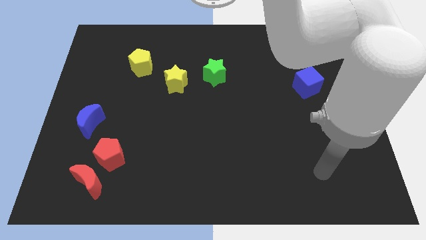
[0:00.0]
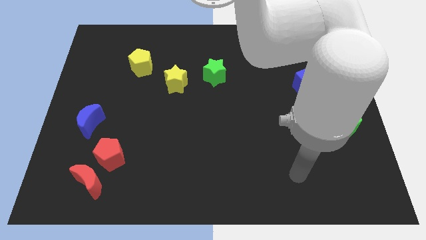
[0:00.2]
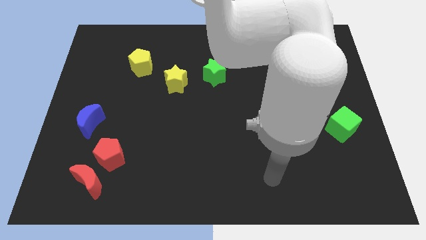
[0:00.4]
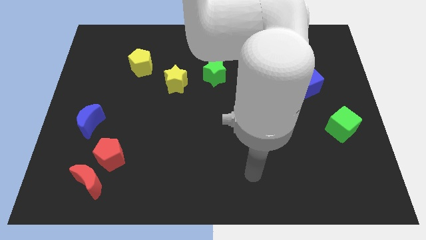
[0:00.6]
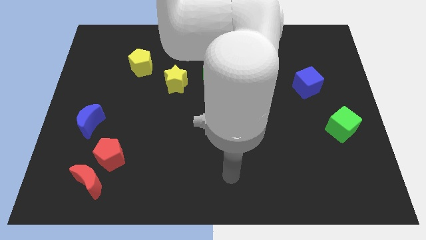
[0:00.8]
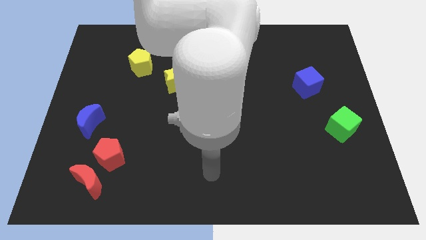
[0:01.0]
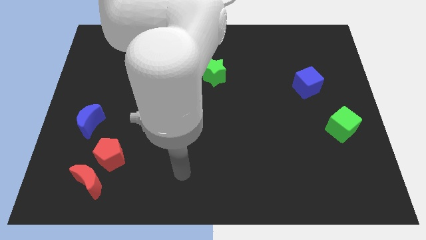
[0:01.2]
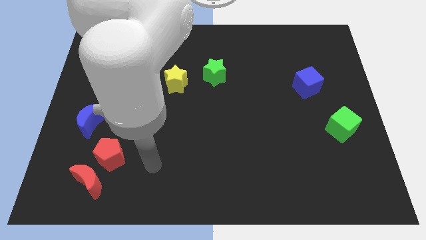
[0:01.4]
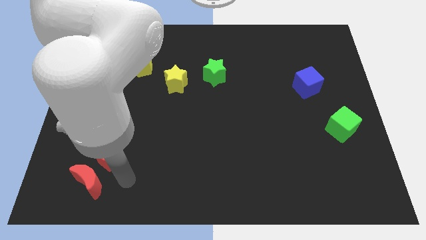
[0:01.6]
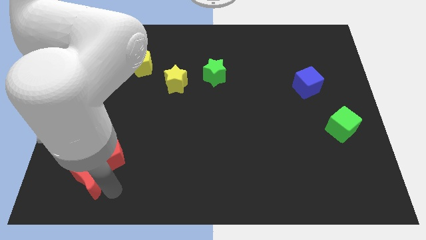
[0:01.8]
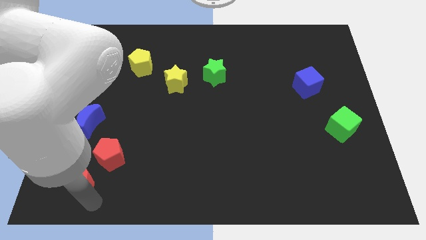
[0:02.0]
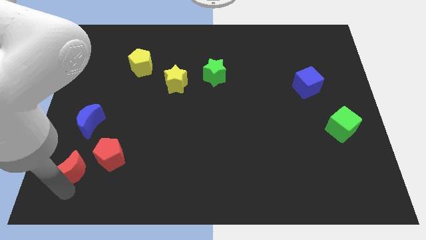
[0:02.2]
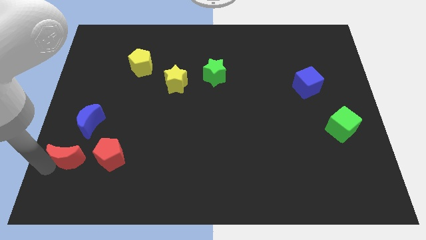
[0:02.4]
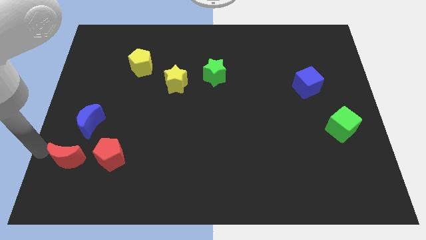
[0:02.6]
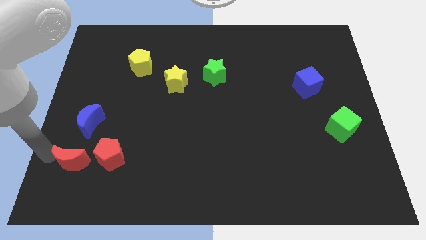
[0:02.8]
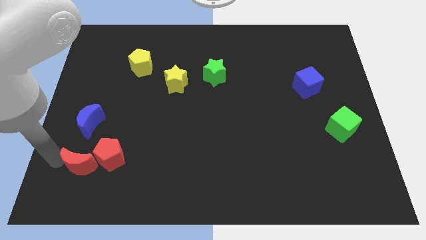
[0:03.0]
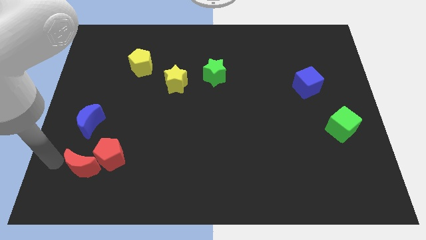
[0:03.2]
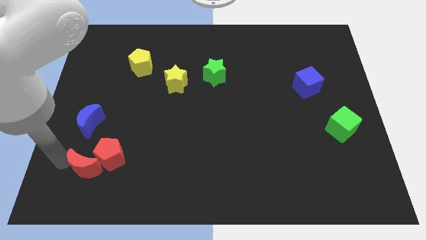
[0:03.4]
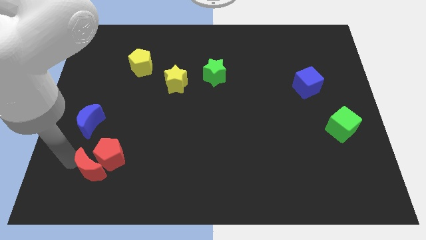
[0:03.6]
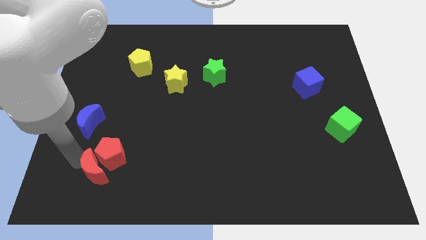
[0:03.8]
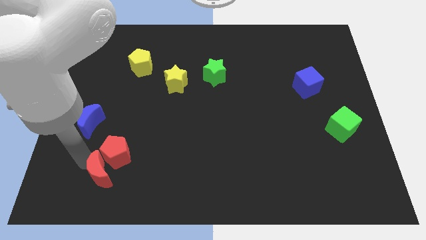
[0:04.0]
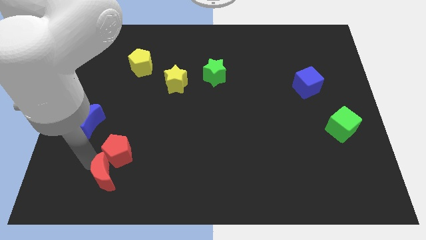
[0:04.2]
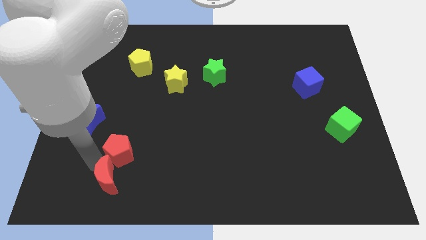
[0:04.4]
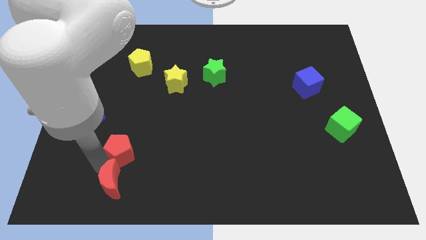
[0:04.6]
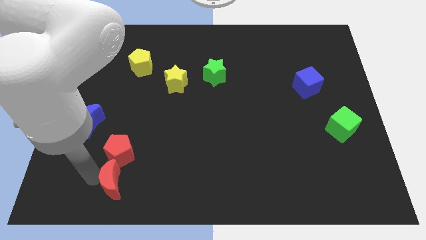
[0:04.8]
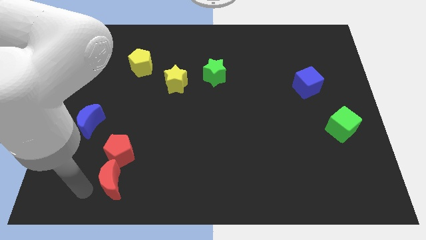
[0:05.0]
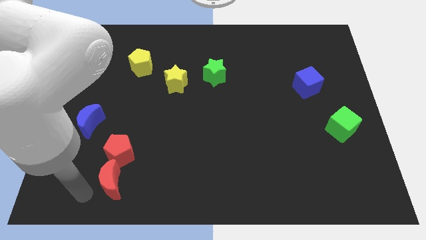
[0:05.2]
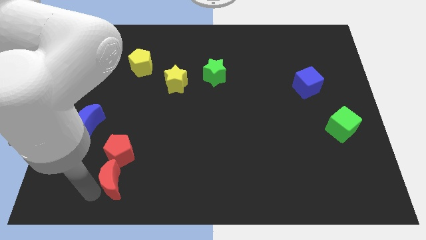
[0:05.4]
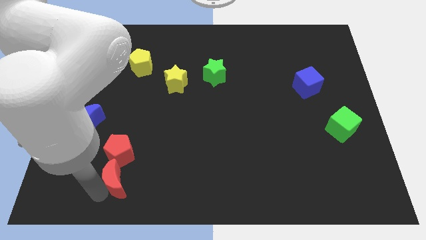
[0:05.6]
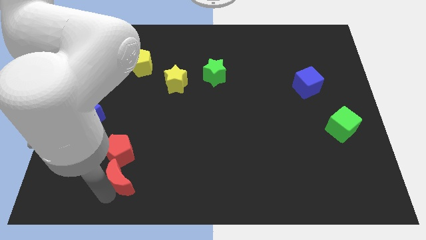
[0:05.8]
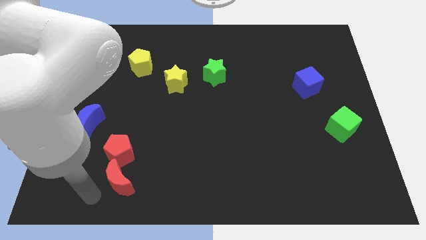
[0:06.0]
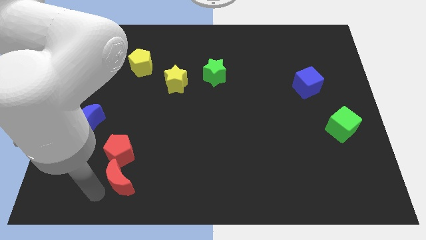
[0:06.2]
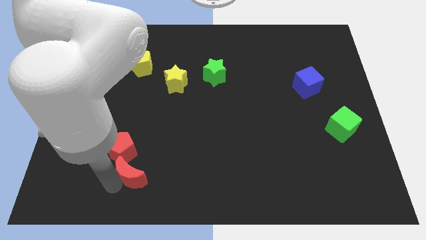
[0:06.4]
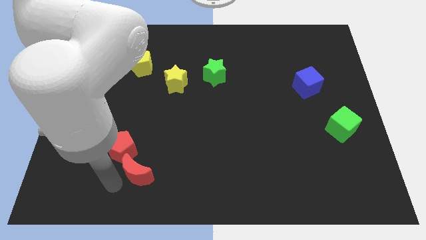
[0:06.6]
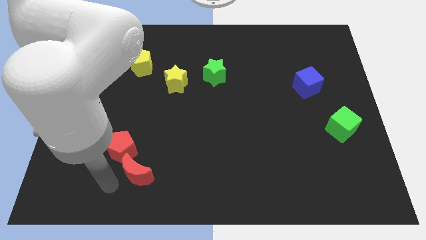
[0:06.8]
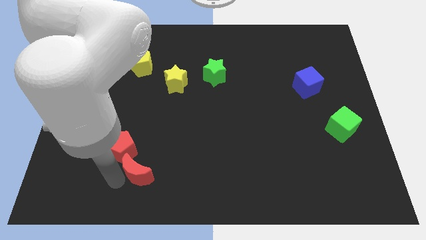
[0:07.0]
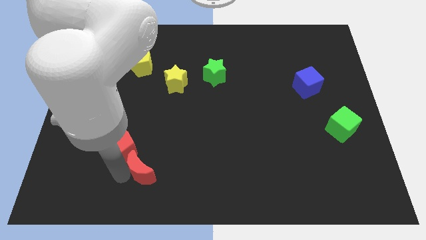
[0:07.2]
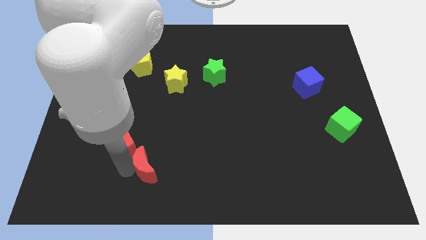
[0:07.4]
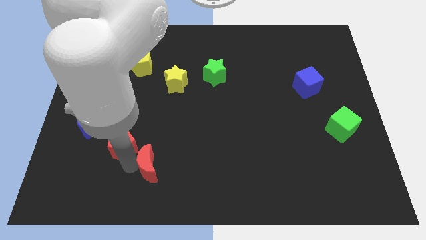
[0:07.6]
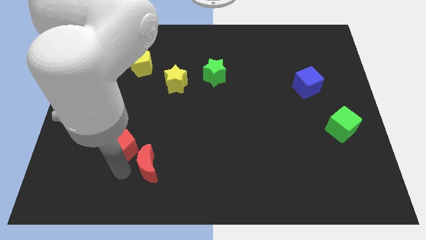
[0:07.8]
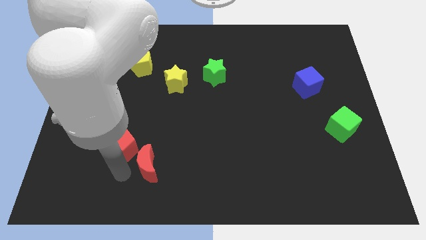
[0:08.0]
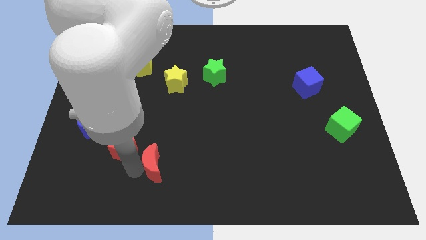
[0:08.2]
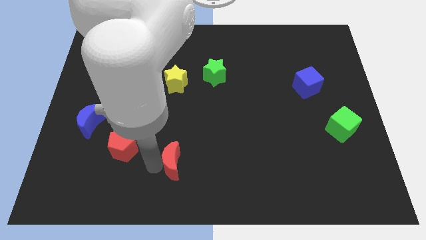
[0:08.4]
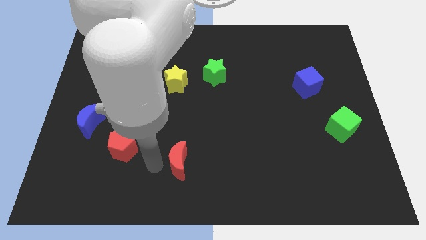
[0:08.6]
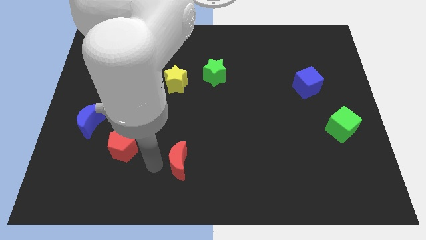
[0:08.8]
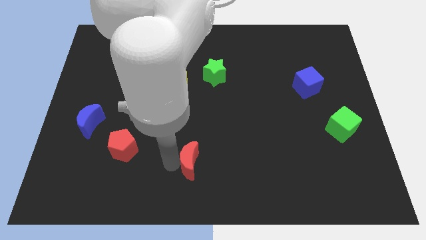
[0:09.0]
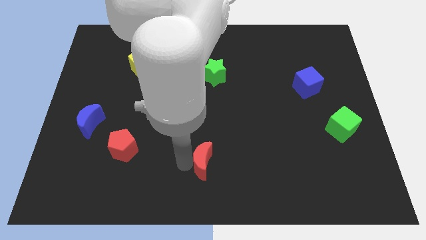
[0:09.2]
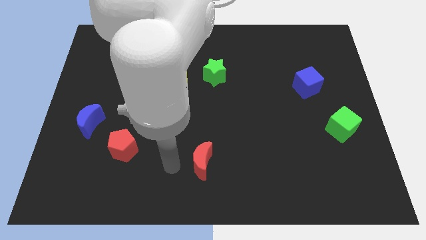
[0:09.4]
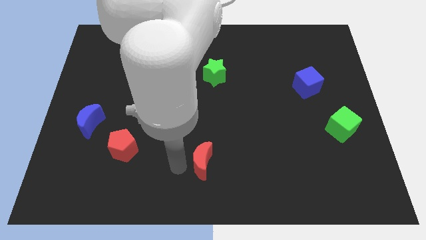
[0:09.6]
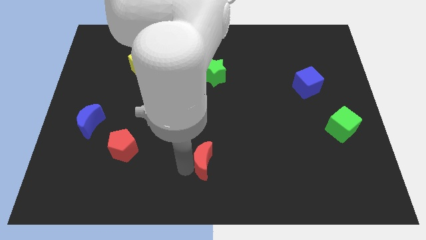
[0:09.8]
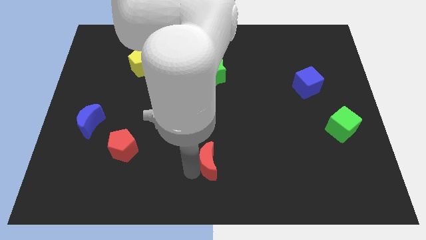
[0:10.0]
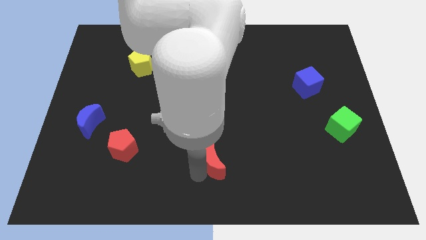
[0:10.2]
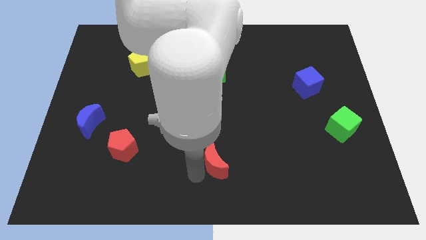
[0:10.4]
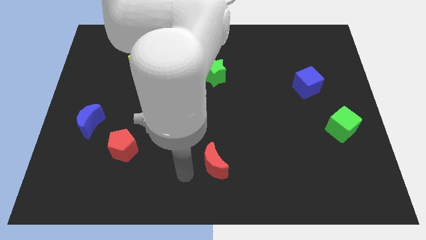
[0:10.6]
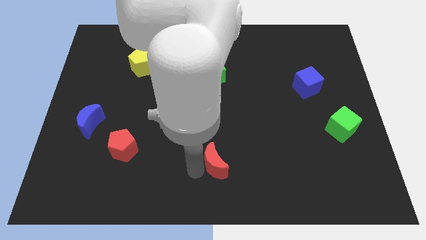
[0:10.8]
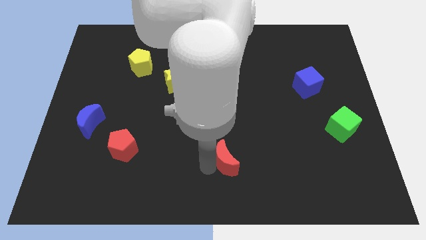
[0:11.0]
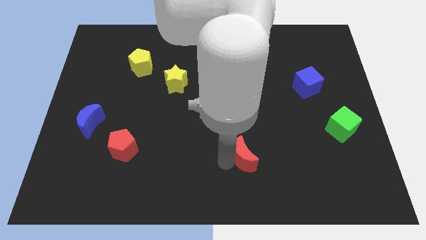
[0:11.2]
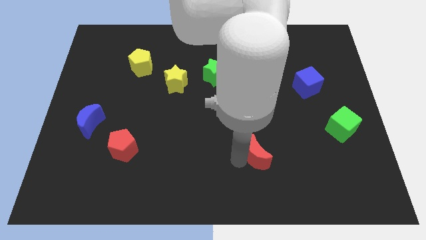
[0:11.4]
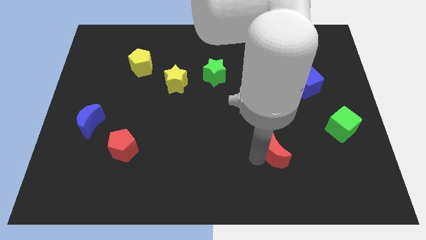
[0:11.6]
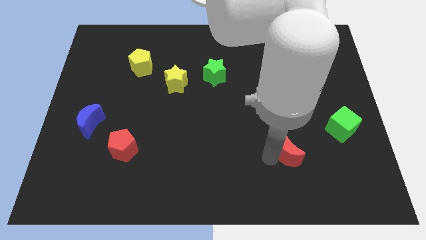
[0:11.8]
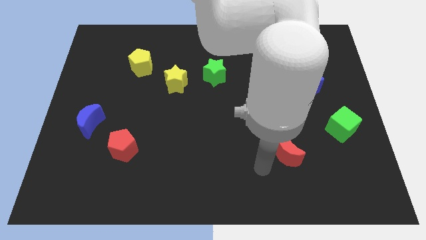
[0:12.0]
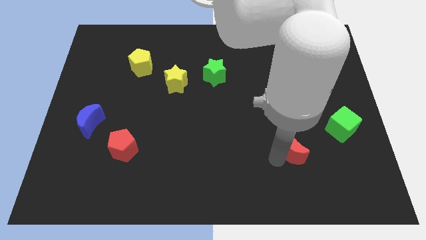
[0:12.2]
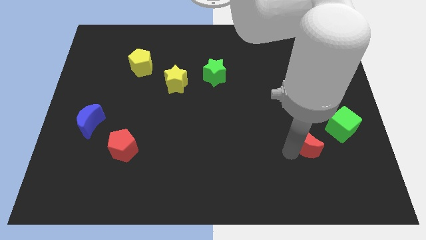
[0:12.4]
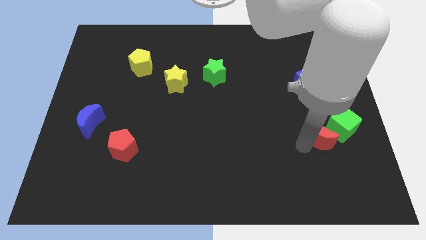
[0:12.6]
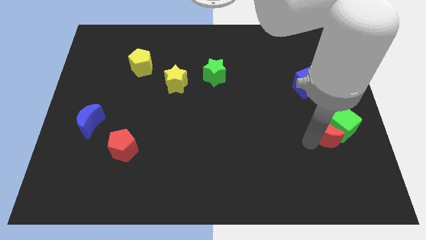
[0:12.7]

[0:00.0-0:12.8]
slide the red moon towards the green cube
